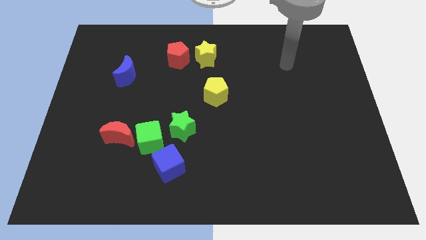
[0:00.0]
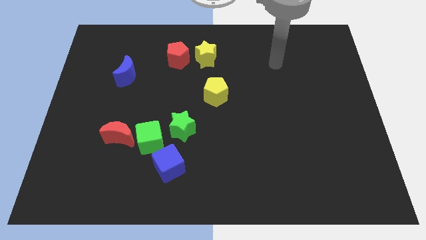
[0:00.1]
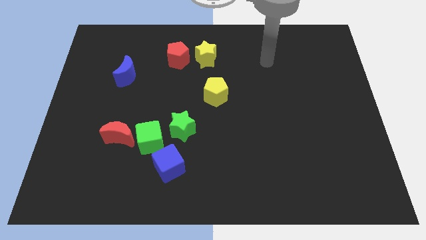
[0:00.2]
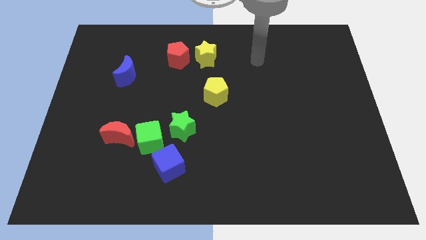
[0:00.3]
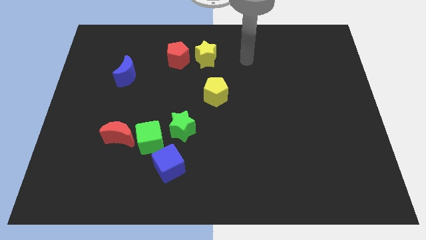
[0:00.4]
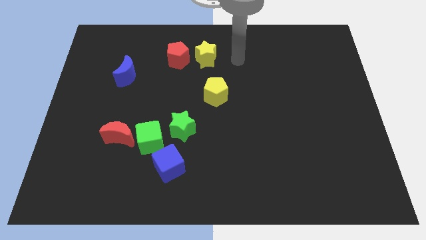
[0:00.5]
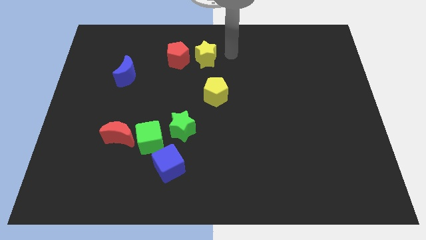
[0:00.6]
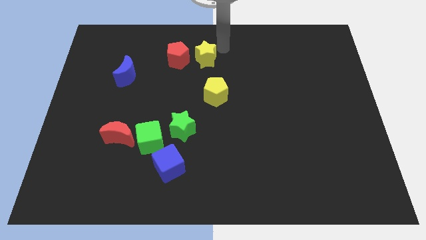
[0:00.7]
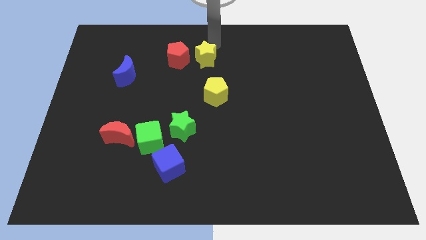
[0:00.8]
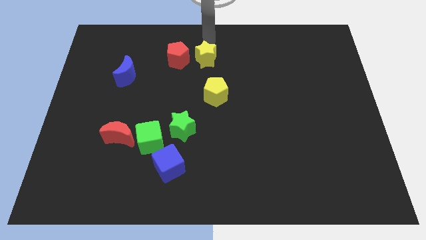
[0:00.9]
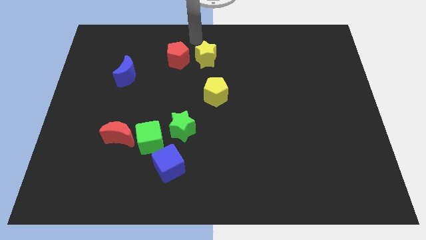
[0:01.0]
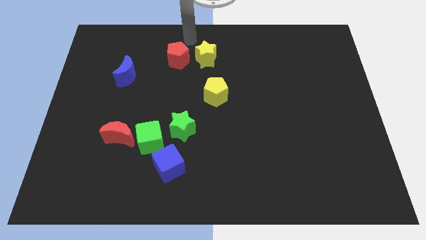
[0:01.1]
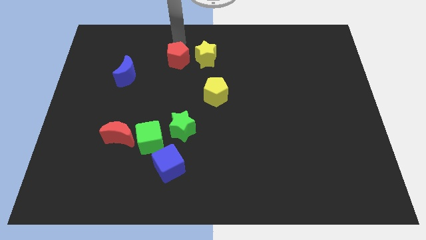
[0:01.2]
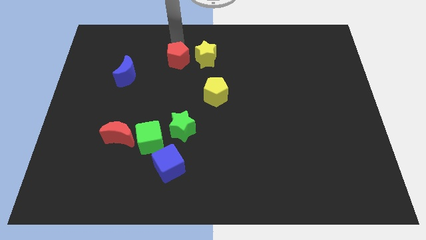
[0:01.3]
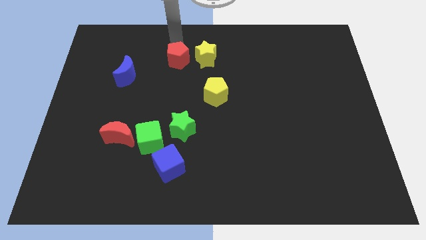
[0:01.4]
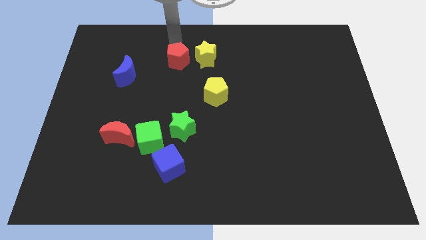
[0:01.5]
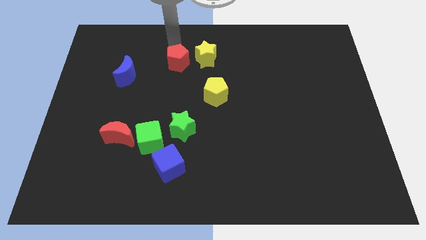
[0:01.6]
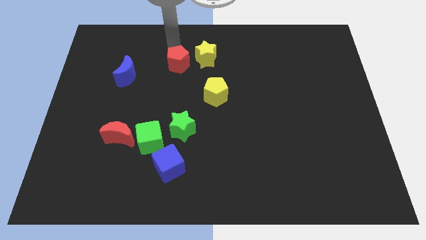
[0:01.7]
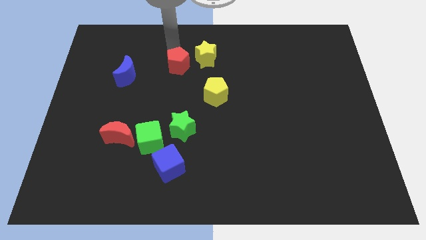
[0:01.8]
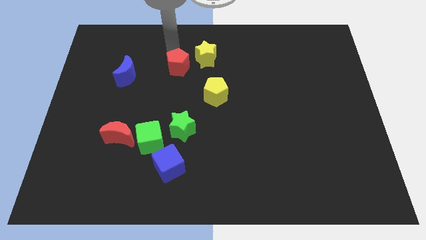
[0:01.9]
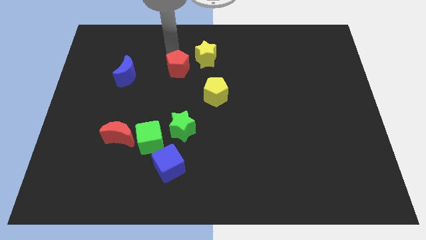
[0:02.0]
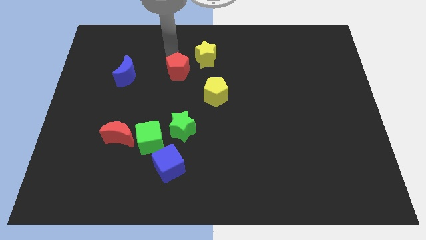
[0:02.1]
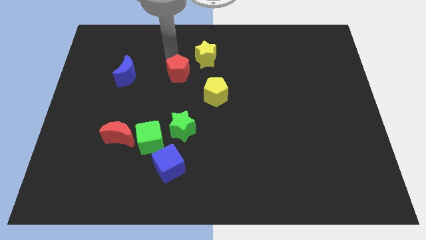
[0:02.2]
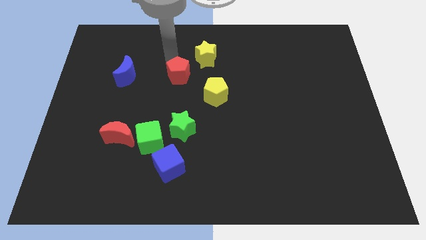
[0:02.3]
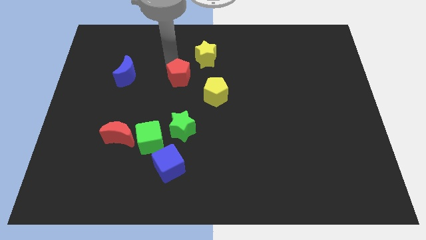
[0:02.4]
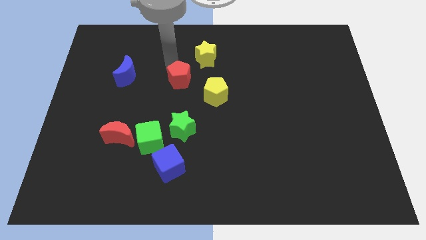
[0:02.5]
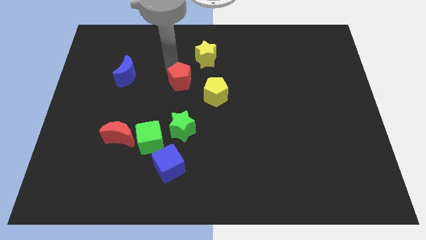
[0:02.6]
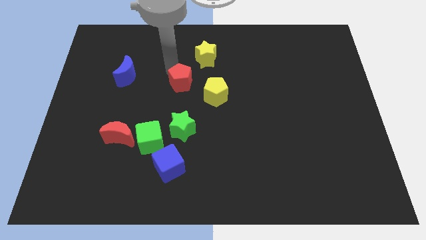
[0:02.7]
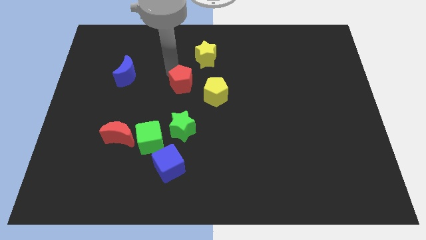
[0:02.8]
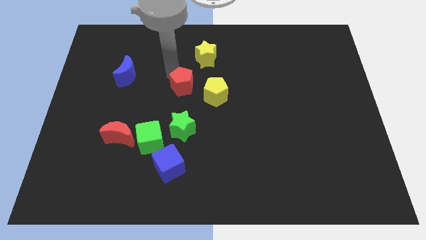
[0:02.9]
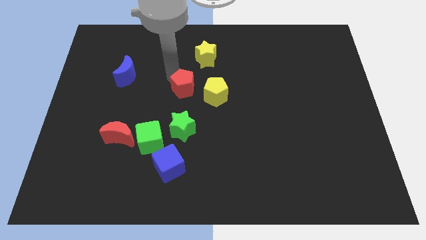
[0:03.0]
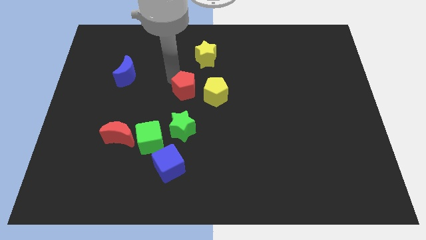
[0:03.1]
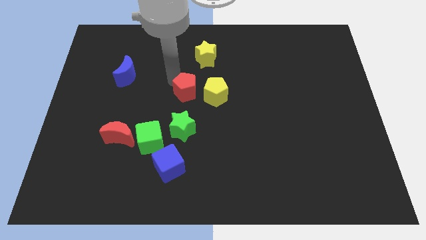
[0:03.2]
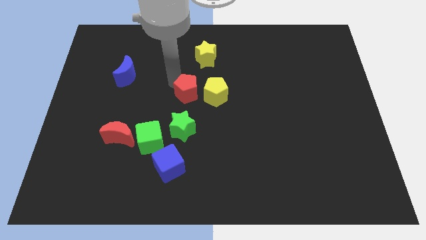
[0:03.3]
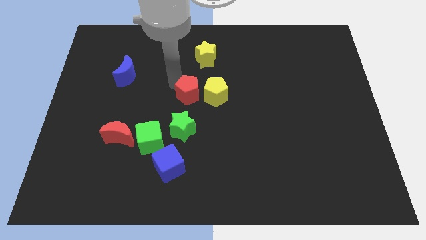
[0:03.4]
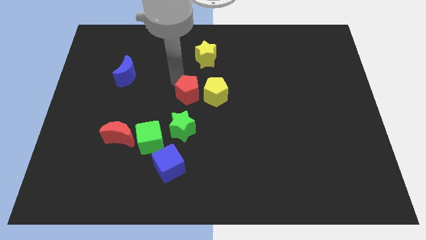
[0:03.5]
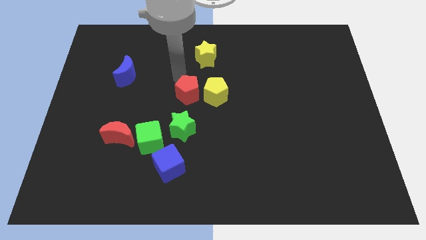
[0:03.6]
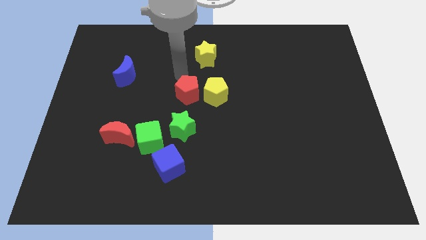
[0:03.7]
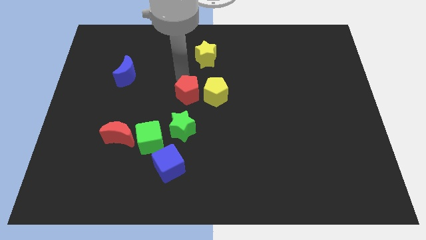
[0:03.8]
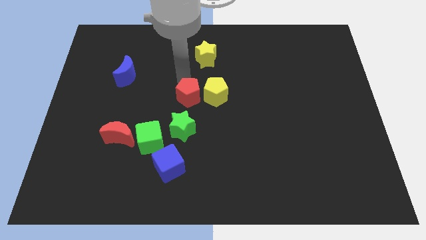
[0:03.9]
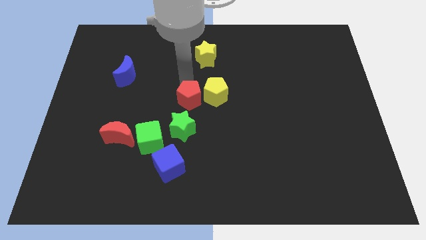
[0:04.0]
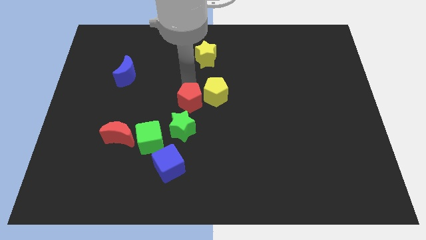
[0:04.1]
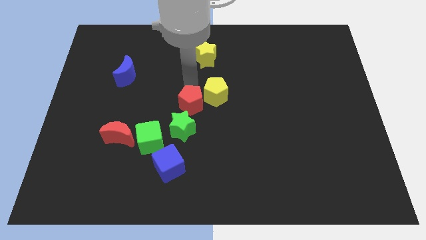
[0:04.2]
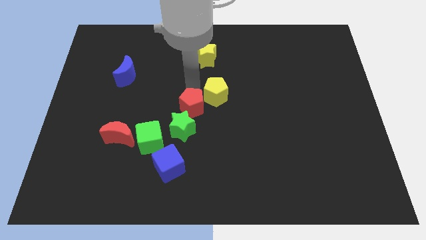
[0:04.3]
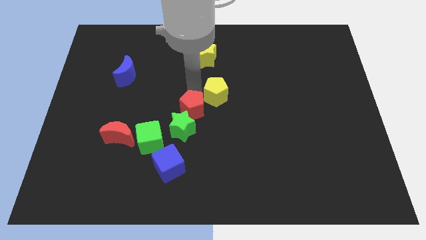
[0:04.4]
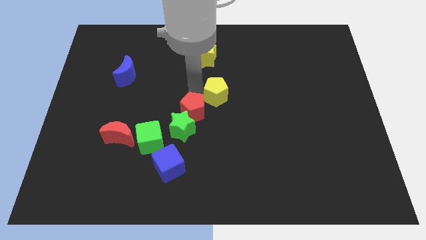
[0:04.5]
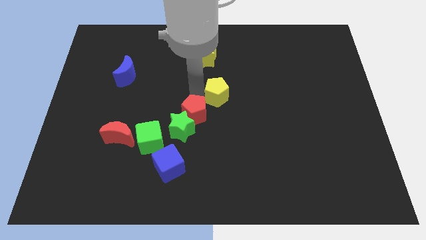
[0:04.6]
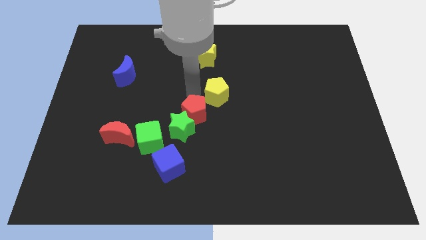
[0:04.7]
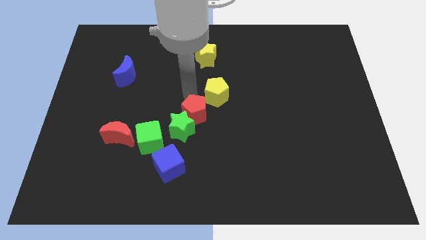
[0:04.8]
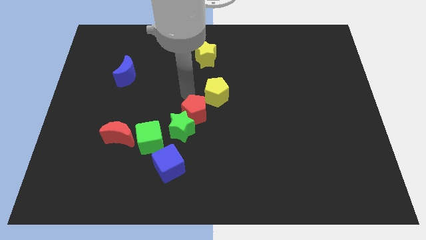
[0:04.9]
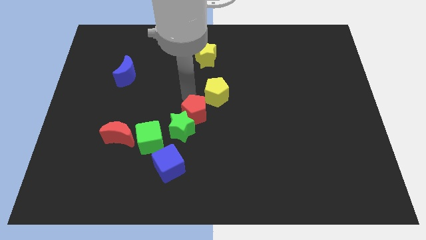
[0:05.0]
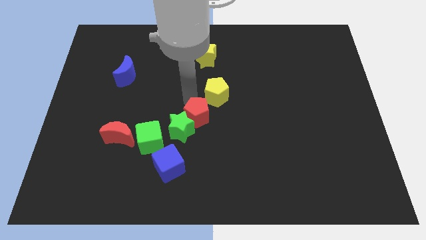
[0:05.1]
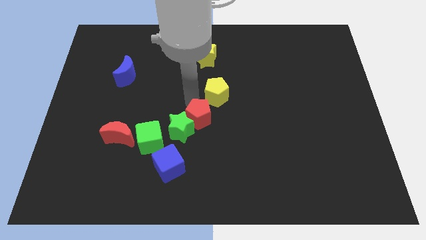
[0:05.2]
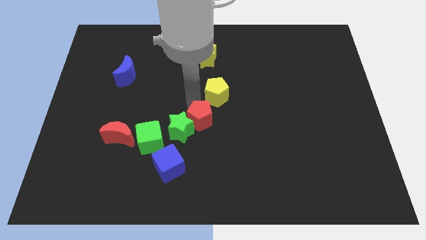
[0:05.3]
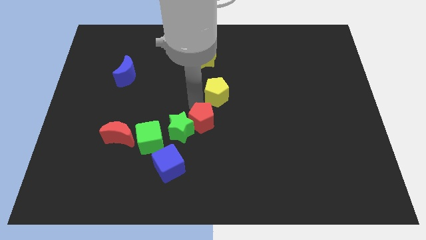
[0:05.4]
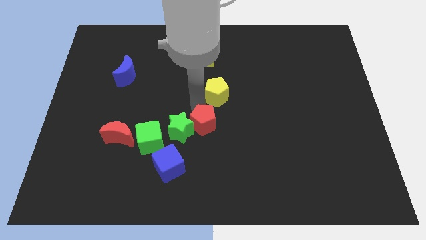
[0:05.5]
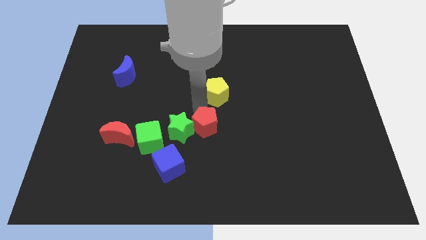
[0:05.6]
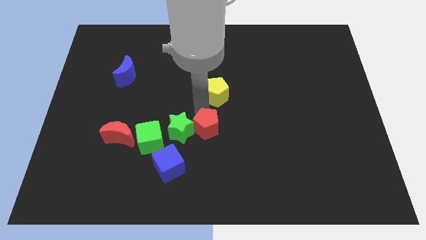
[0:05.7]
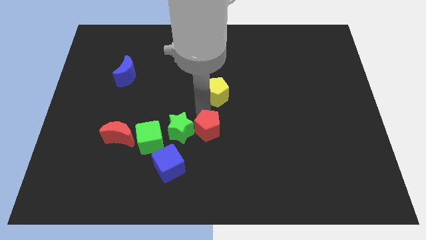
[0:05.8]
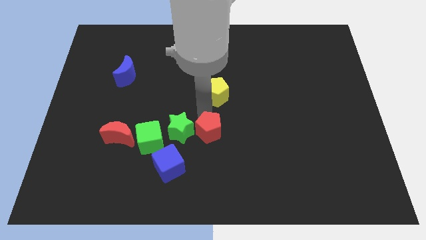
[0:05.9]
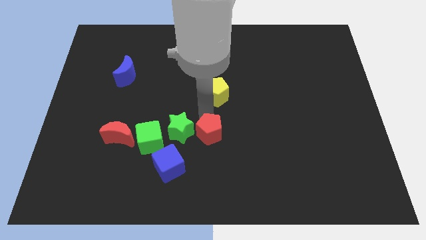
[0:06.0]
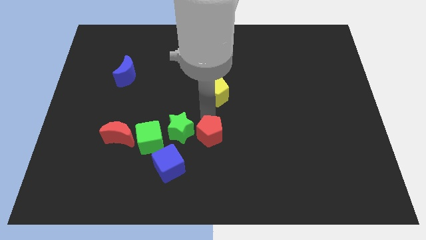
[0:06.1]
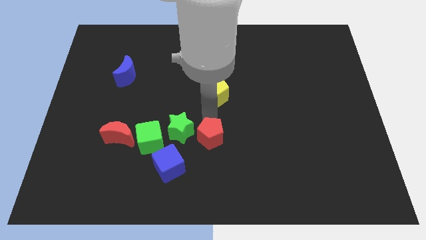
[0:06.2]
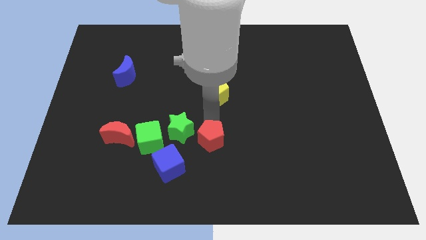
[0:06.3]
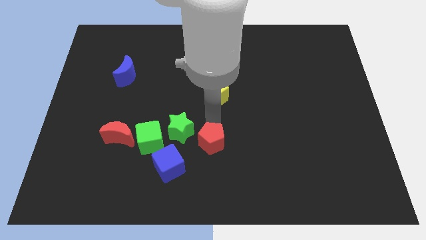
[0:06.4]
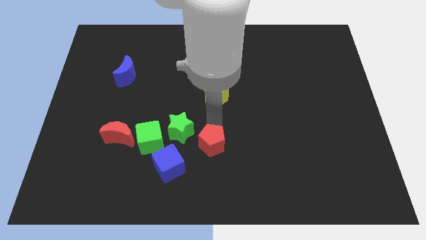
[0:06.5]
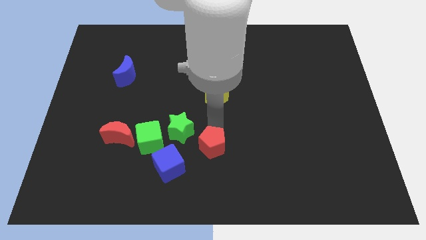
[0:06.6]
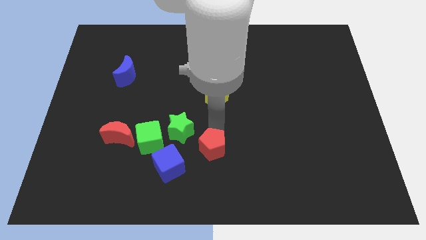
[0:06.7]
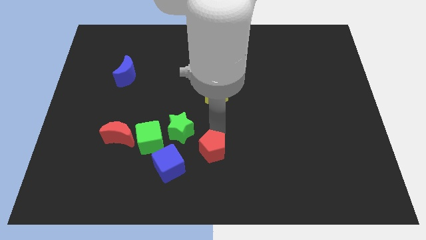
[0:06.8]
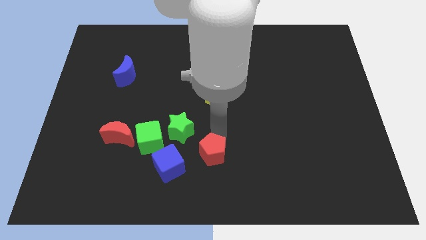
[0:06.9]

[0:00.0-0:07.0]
slide the red pentagon to the bottom side
